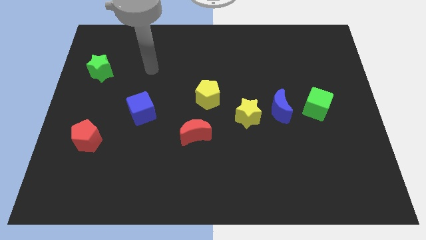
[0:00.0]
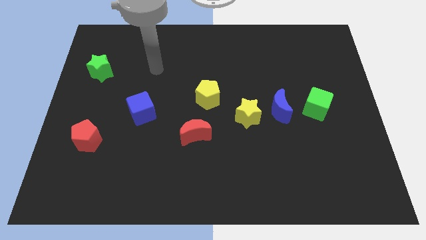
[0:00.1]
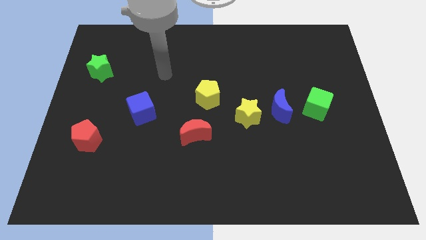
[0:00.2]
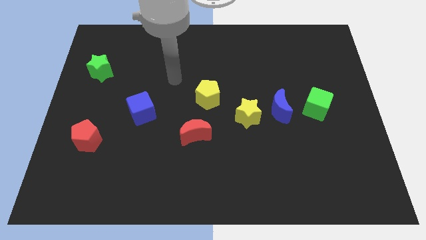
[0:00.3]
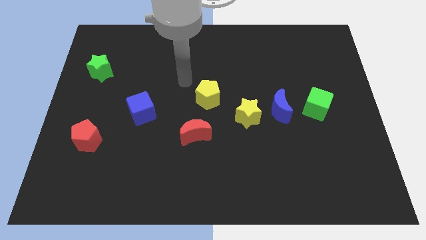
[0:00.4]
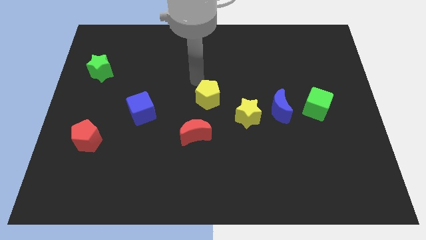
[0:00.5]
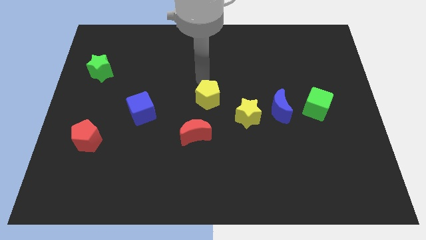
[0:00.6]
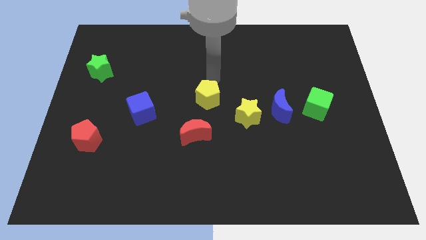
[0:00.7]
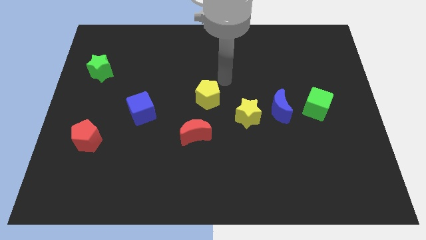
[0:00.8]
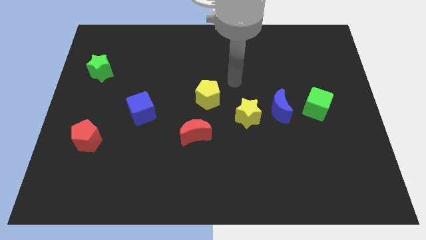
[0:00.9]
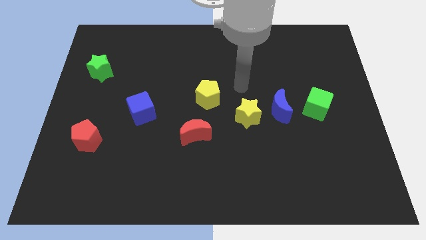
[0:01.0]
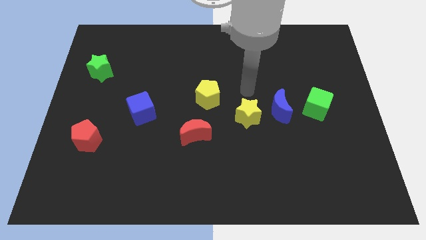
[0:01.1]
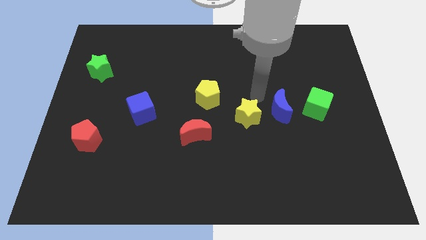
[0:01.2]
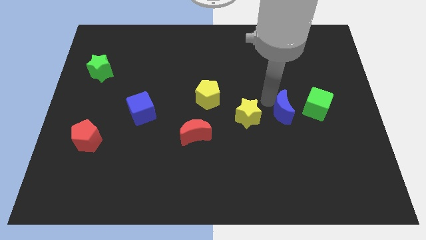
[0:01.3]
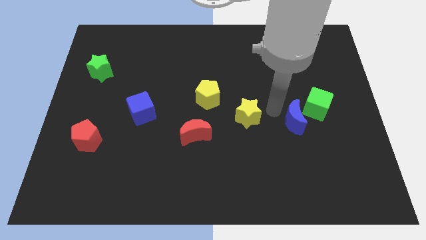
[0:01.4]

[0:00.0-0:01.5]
pull the yellow star apart from the blue moon

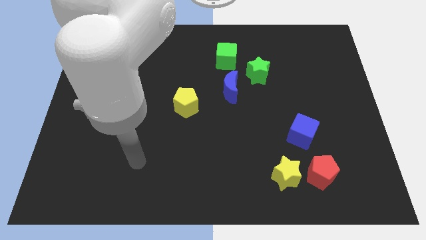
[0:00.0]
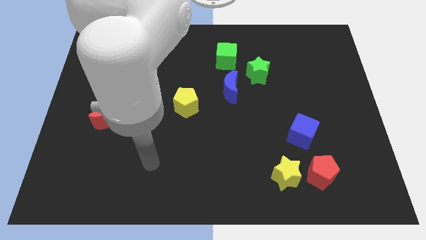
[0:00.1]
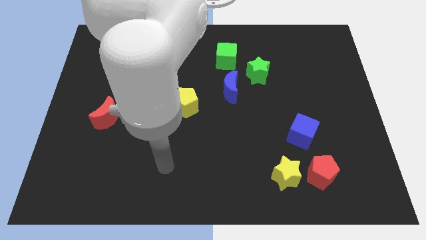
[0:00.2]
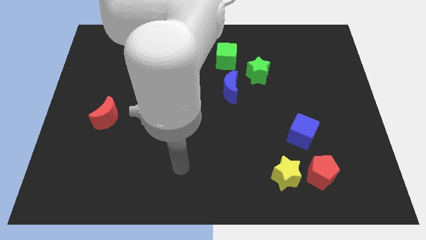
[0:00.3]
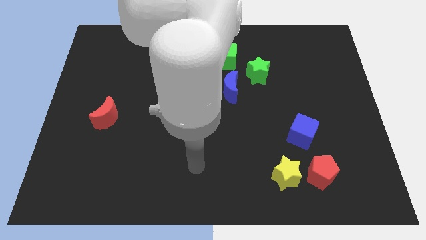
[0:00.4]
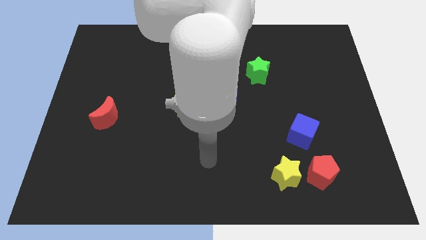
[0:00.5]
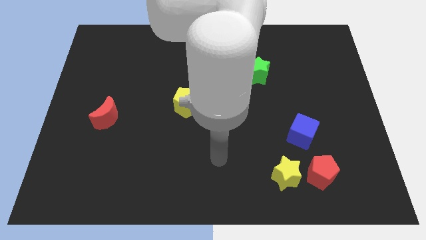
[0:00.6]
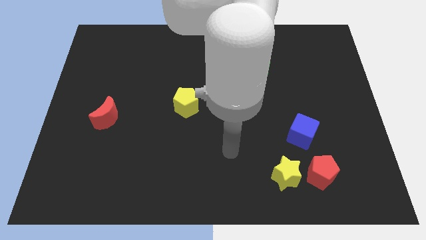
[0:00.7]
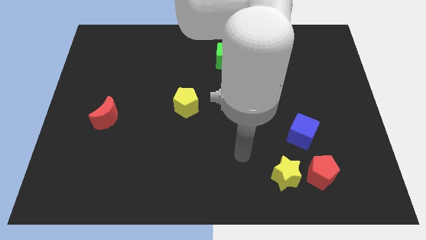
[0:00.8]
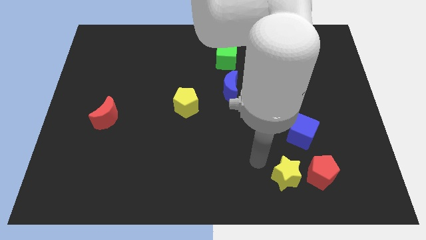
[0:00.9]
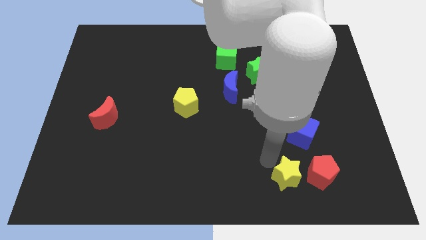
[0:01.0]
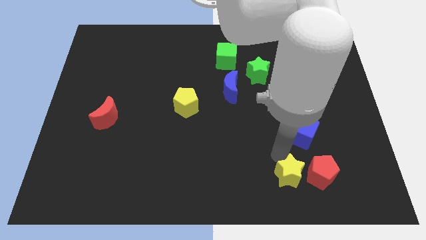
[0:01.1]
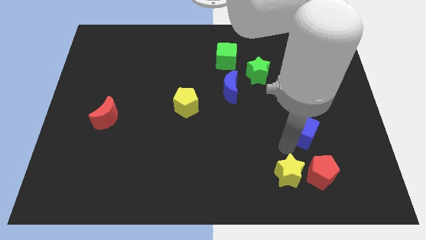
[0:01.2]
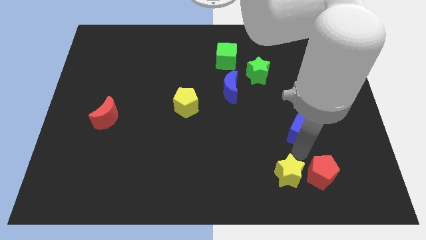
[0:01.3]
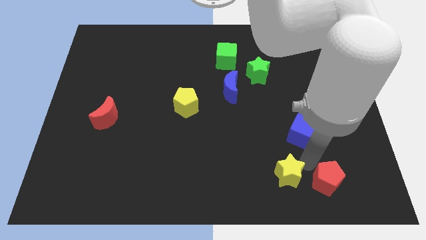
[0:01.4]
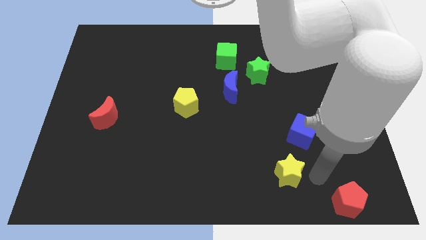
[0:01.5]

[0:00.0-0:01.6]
separate the yellow star from the red pentagon

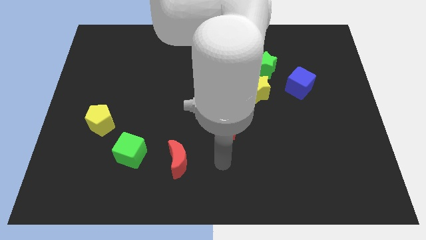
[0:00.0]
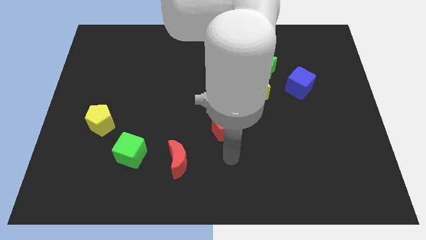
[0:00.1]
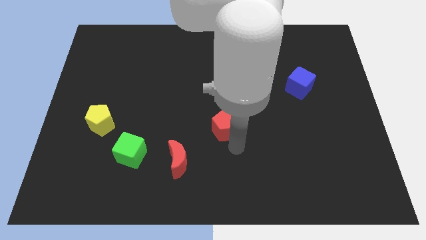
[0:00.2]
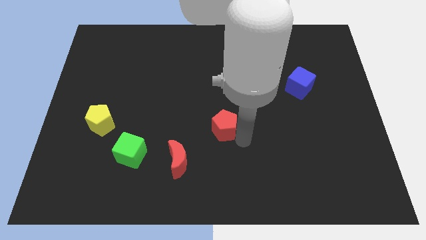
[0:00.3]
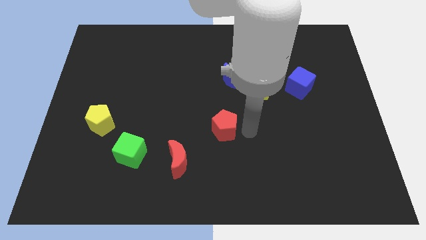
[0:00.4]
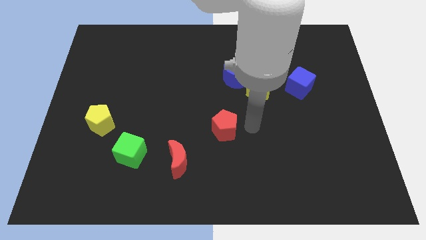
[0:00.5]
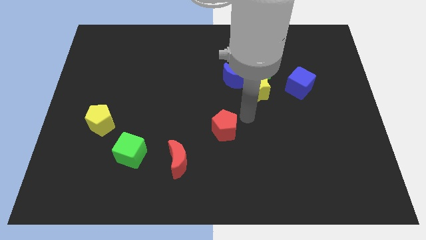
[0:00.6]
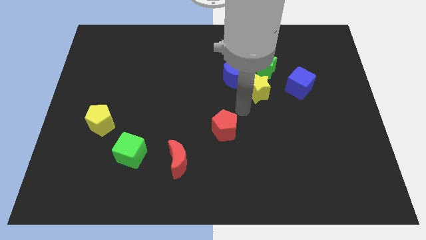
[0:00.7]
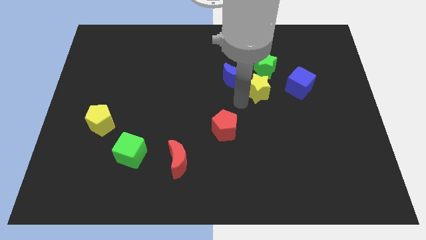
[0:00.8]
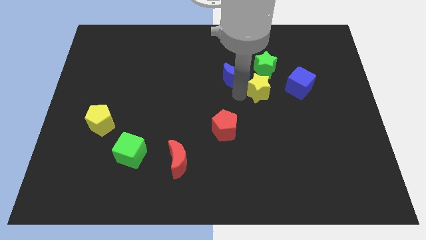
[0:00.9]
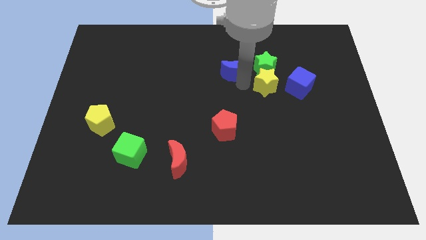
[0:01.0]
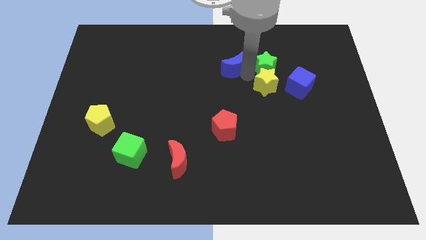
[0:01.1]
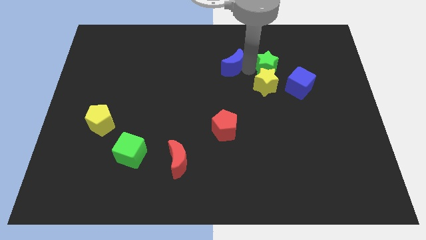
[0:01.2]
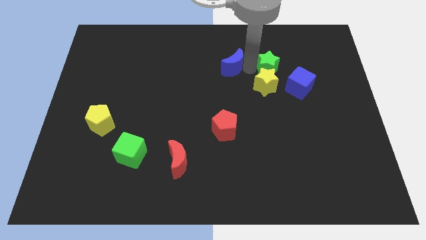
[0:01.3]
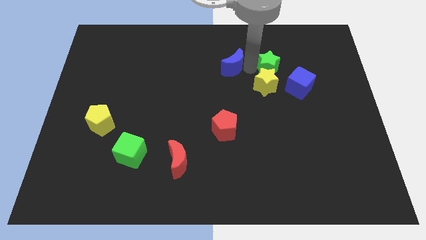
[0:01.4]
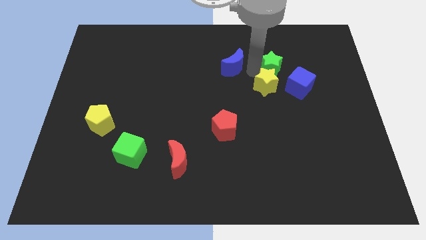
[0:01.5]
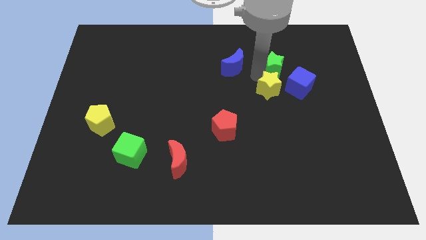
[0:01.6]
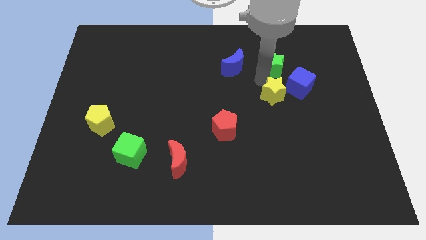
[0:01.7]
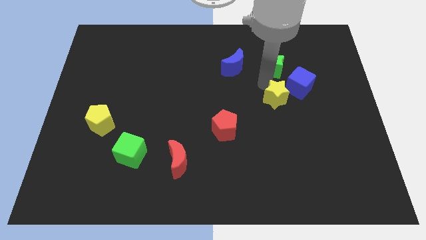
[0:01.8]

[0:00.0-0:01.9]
separate the yellow star from the blue moon and green star

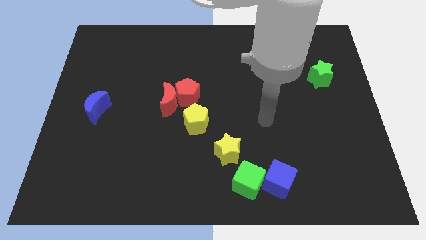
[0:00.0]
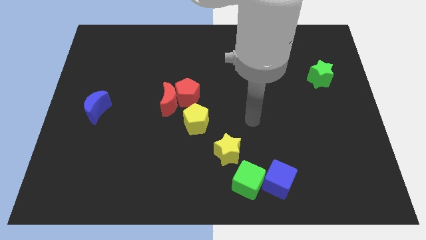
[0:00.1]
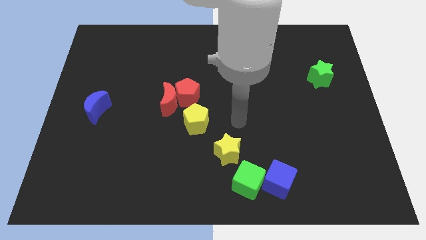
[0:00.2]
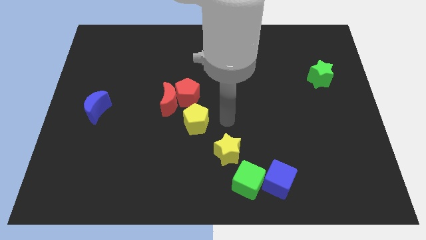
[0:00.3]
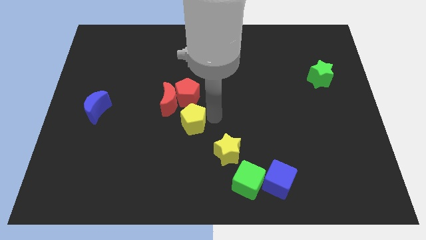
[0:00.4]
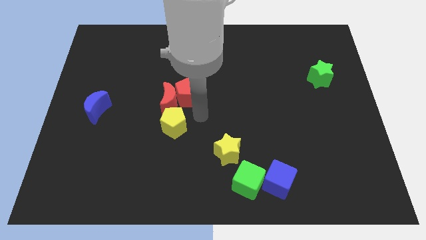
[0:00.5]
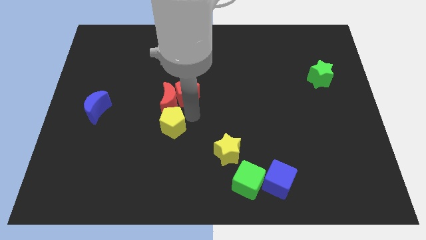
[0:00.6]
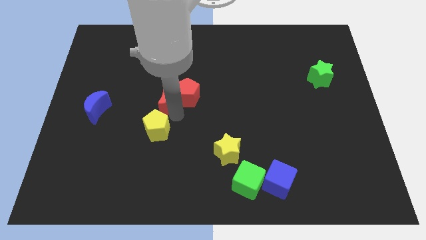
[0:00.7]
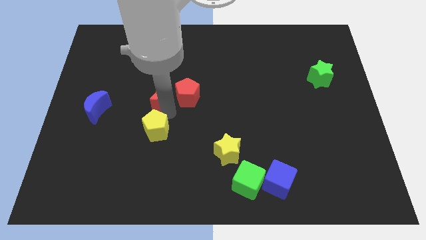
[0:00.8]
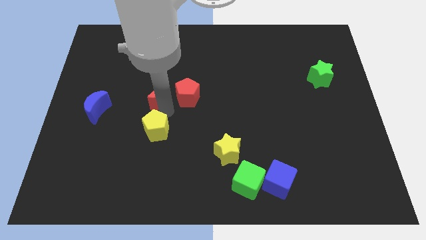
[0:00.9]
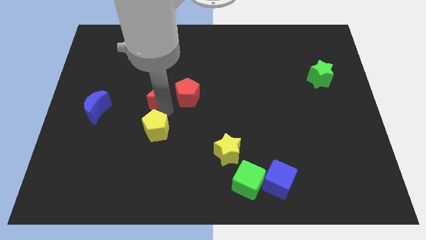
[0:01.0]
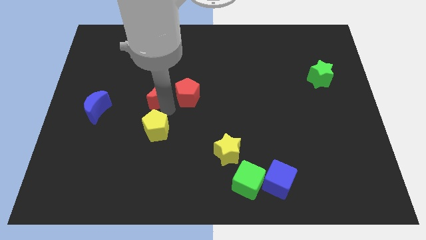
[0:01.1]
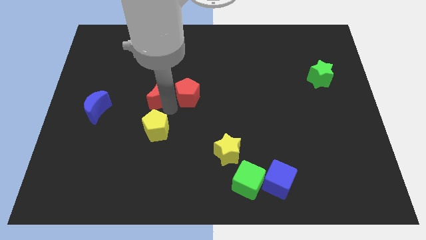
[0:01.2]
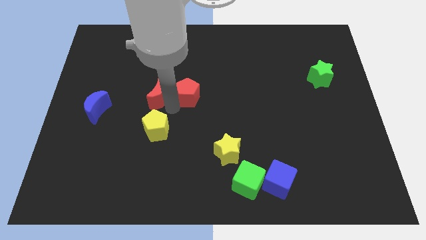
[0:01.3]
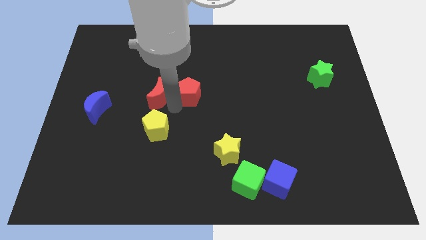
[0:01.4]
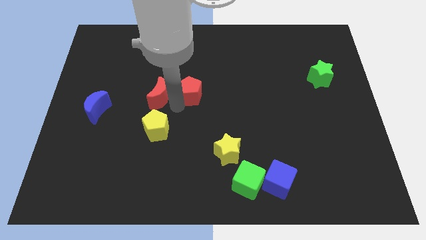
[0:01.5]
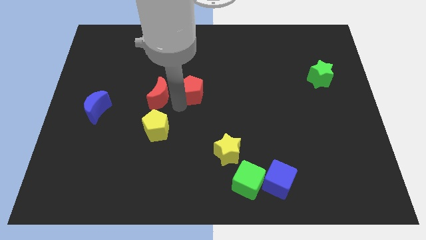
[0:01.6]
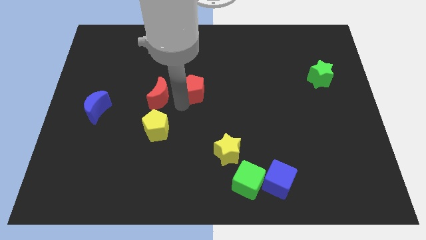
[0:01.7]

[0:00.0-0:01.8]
move the red pentagon away from the red moon and yellow pentagon

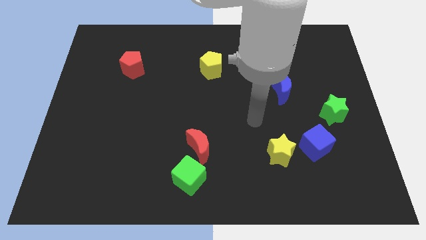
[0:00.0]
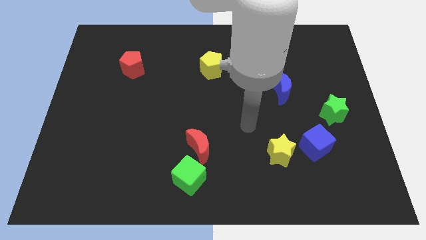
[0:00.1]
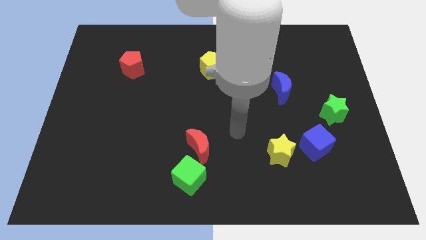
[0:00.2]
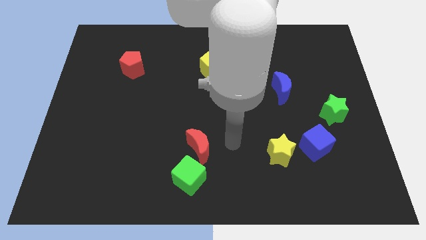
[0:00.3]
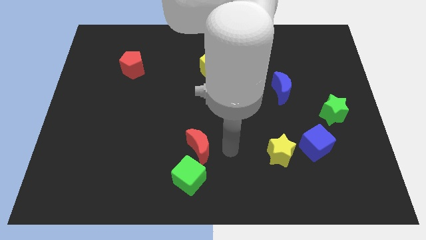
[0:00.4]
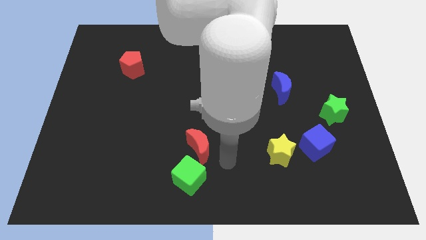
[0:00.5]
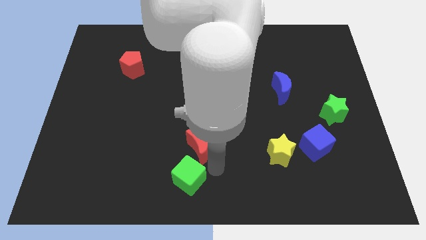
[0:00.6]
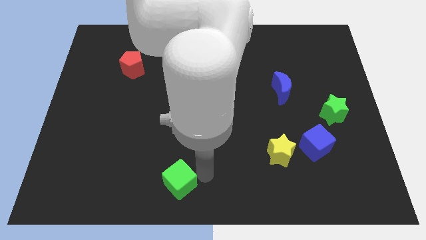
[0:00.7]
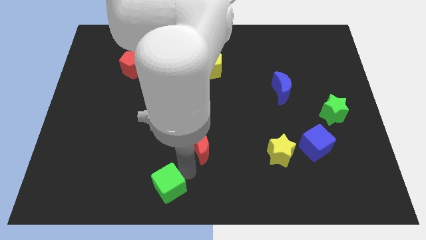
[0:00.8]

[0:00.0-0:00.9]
pull the red moon apart from the green cube

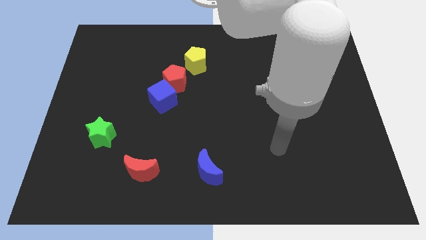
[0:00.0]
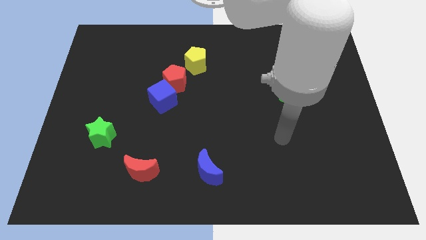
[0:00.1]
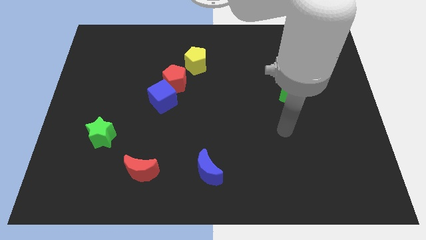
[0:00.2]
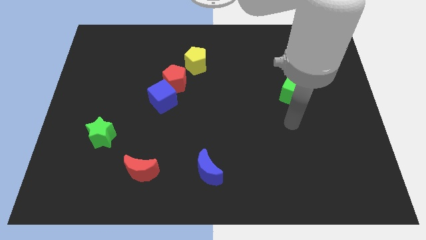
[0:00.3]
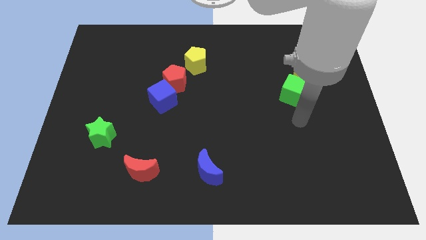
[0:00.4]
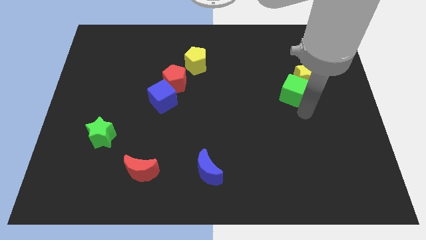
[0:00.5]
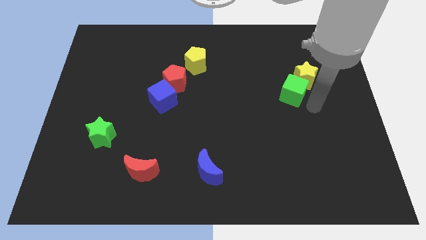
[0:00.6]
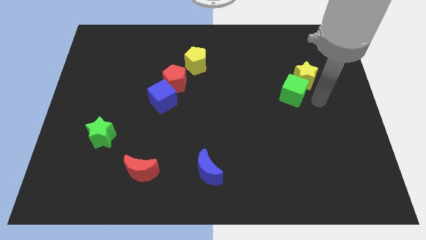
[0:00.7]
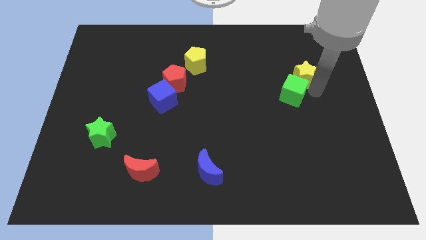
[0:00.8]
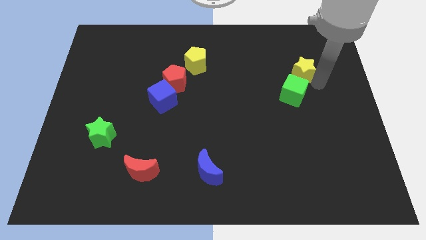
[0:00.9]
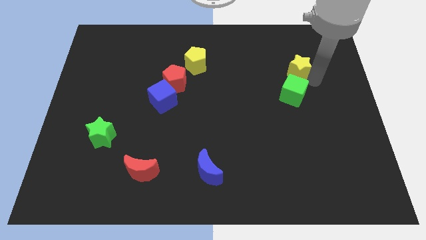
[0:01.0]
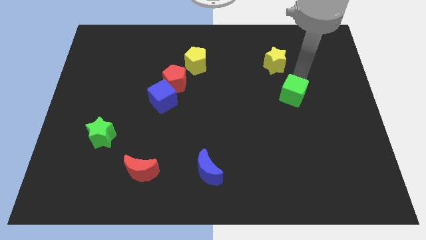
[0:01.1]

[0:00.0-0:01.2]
separate the green cube from the yellow star

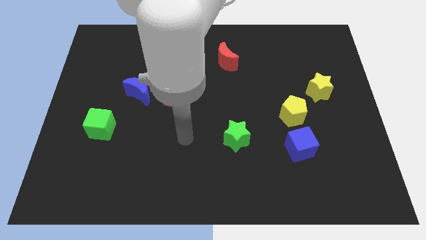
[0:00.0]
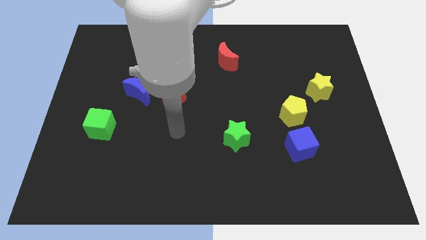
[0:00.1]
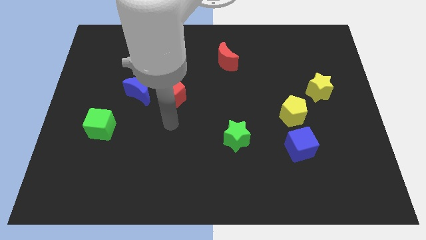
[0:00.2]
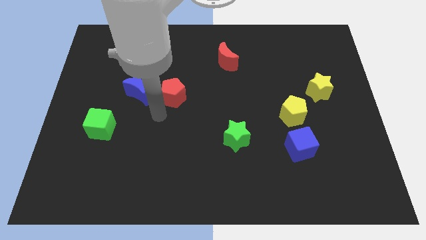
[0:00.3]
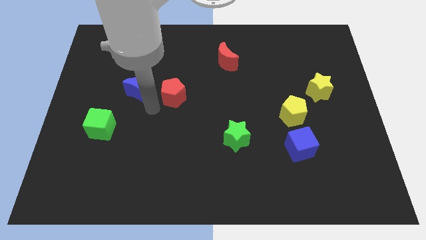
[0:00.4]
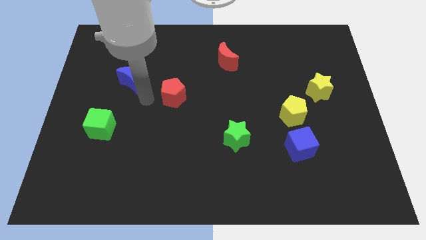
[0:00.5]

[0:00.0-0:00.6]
separate the red pentagon from the blue moon
